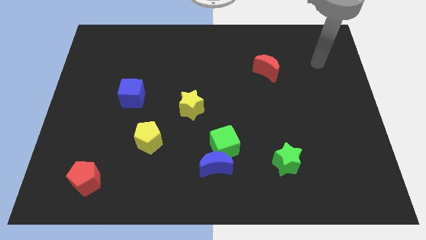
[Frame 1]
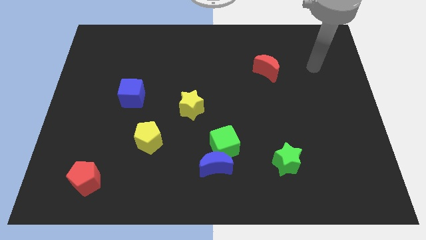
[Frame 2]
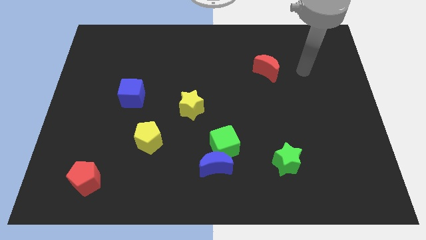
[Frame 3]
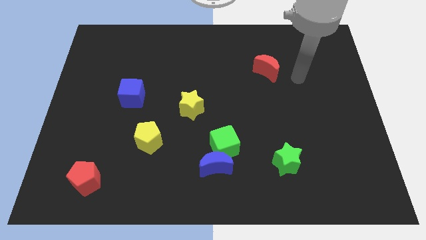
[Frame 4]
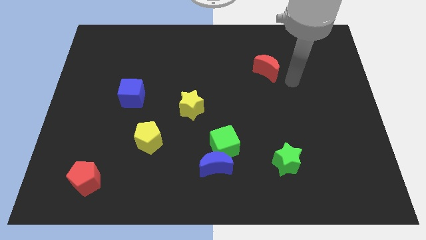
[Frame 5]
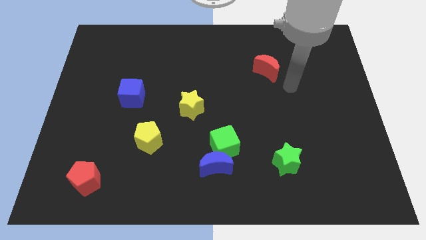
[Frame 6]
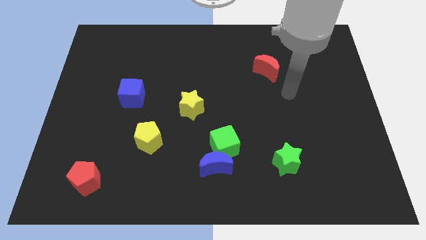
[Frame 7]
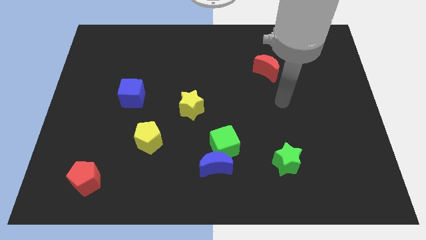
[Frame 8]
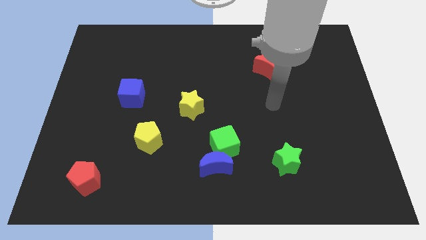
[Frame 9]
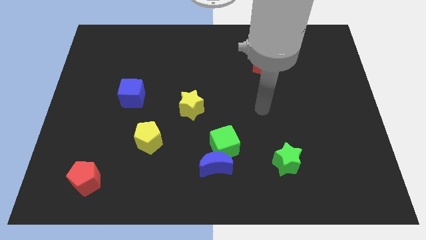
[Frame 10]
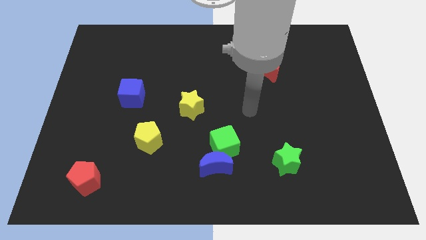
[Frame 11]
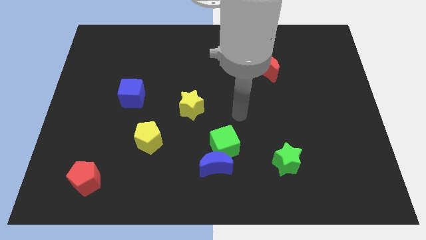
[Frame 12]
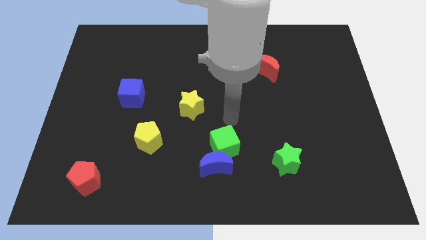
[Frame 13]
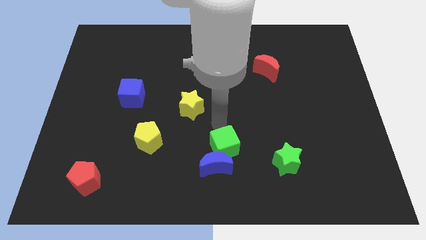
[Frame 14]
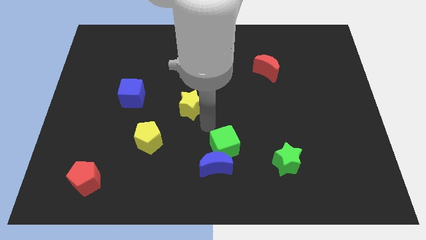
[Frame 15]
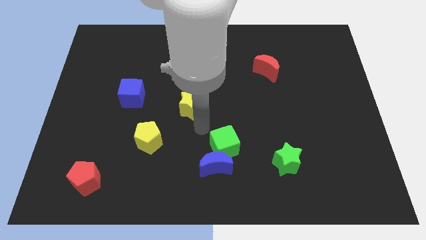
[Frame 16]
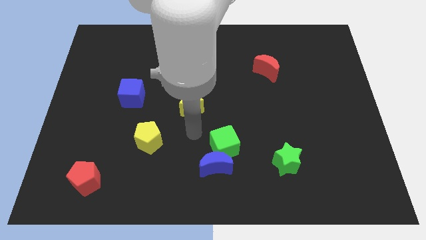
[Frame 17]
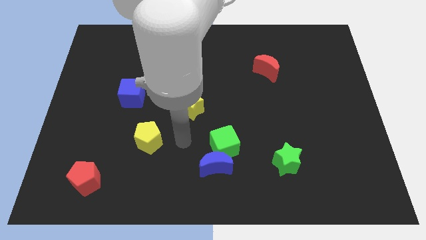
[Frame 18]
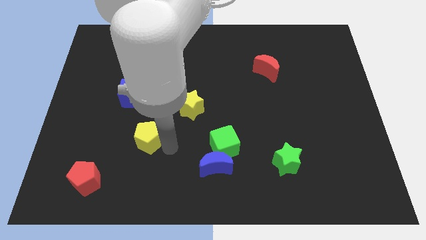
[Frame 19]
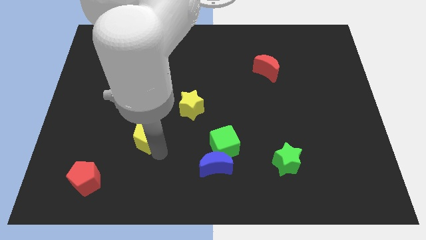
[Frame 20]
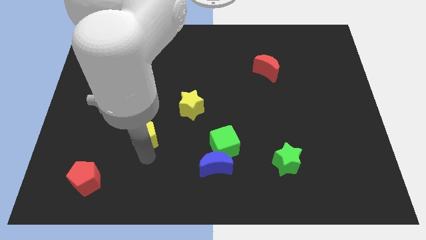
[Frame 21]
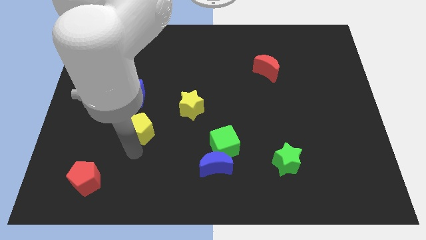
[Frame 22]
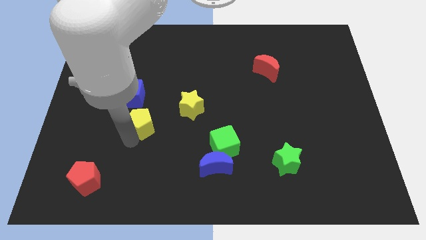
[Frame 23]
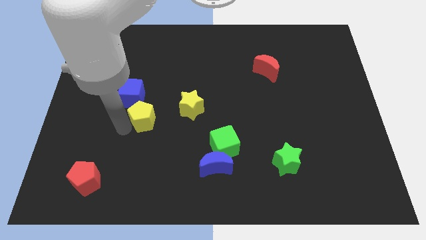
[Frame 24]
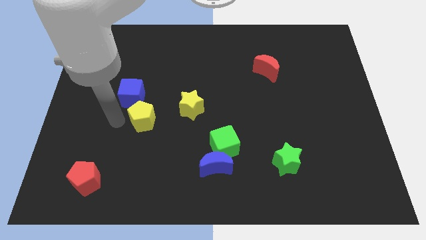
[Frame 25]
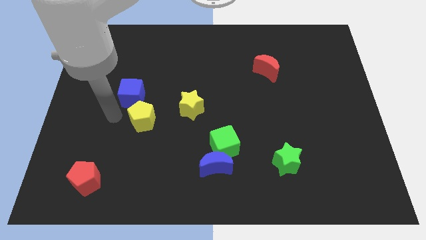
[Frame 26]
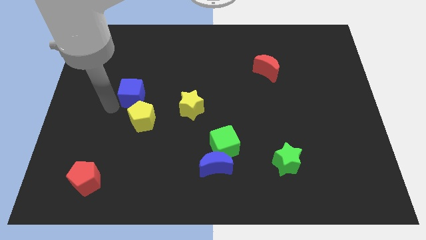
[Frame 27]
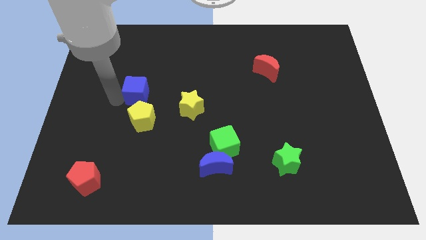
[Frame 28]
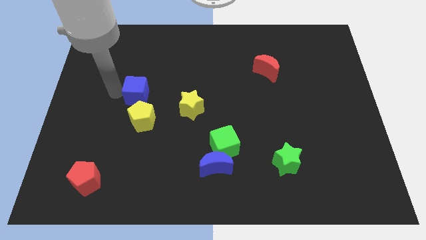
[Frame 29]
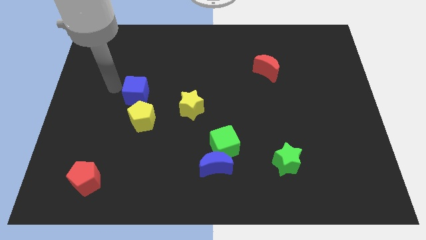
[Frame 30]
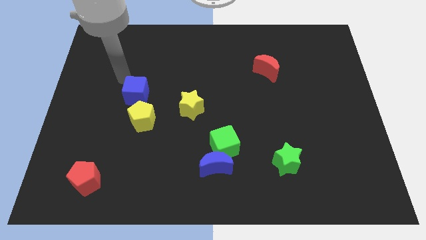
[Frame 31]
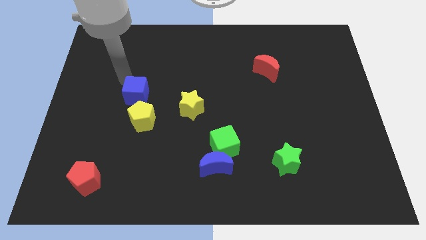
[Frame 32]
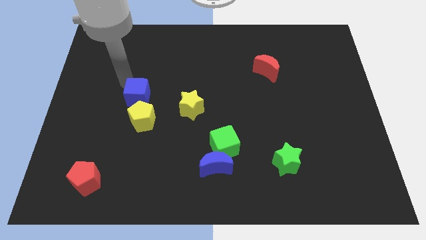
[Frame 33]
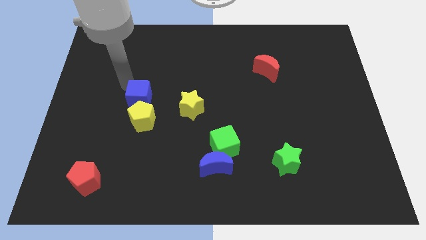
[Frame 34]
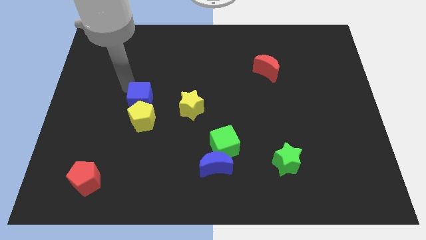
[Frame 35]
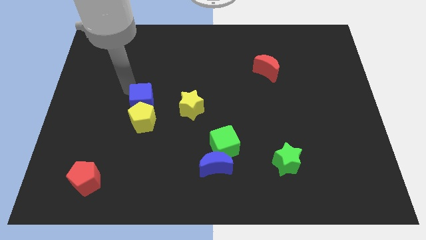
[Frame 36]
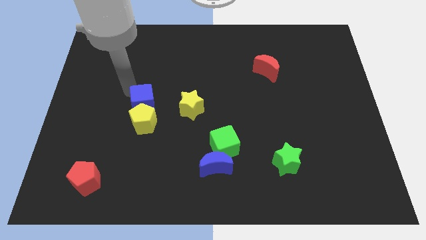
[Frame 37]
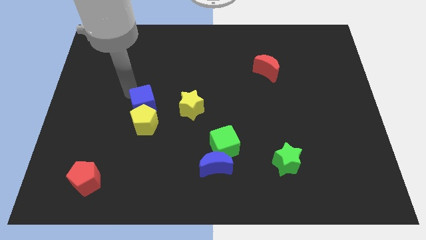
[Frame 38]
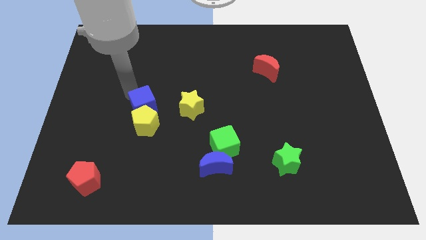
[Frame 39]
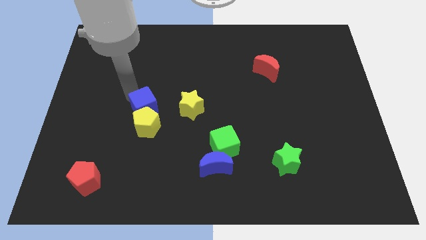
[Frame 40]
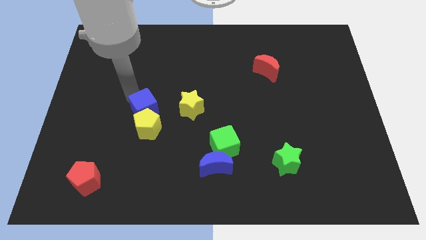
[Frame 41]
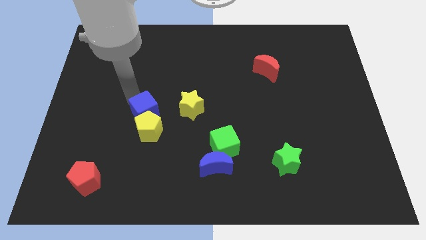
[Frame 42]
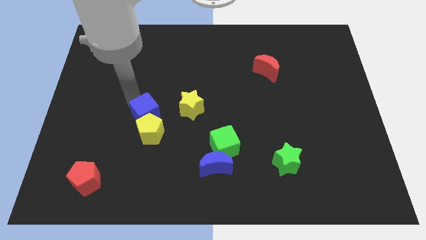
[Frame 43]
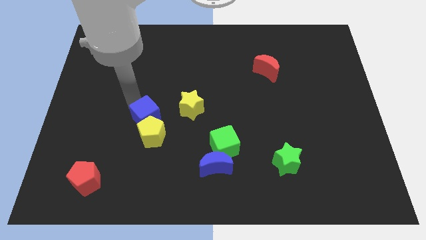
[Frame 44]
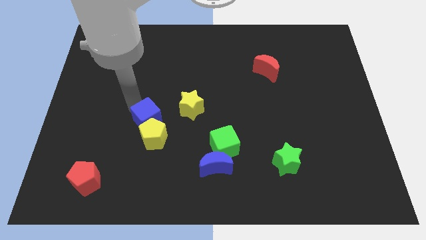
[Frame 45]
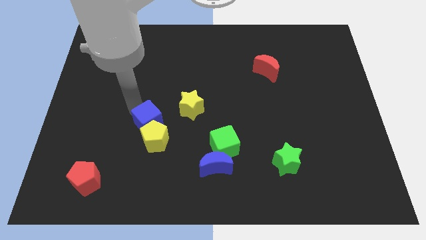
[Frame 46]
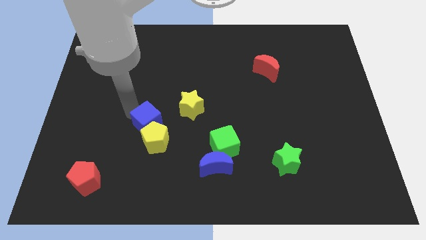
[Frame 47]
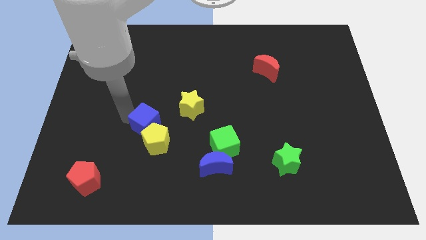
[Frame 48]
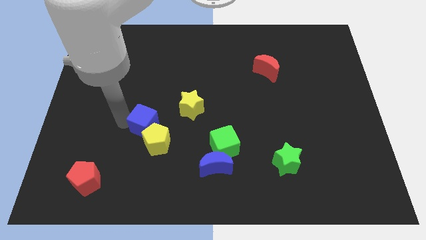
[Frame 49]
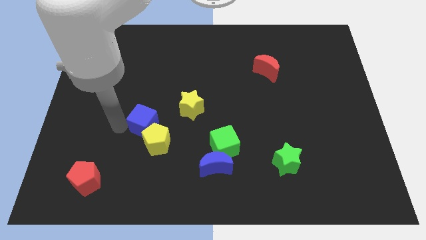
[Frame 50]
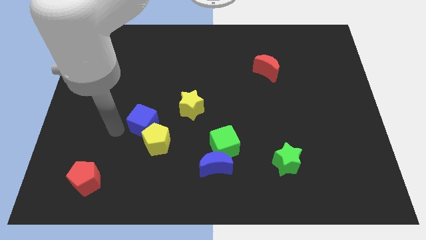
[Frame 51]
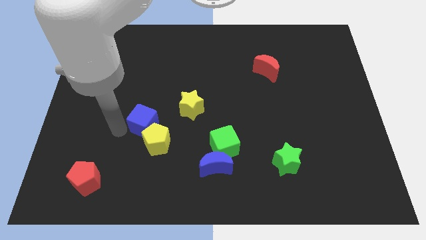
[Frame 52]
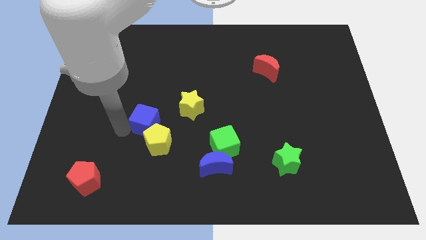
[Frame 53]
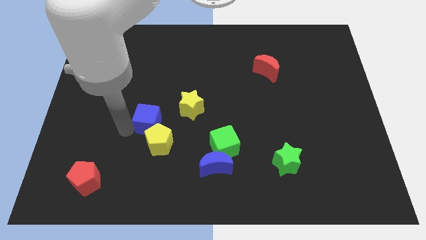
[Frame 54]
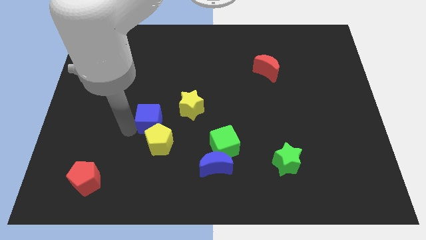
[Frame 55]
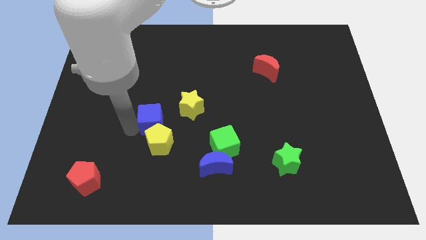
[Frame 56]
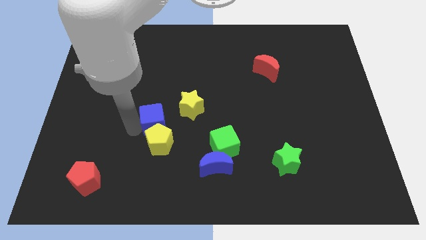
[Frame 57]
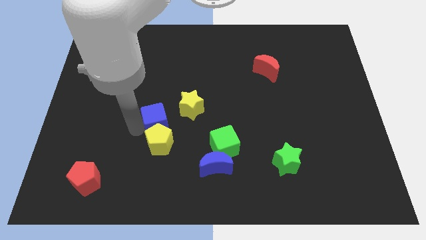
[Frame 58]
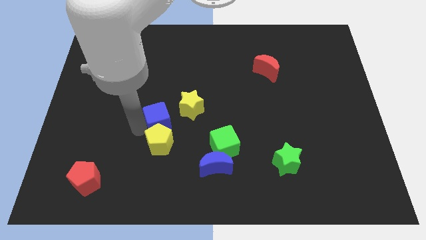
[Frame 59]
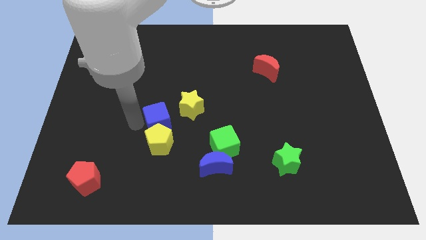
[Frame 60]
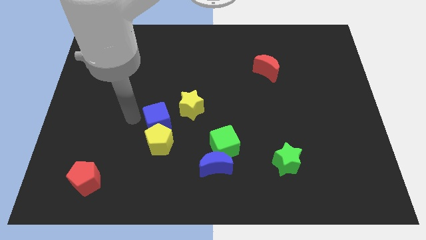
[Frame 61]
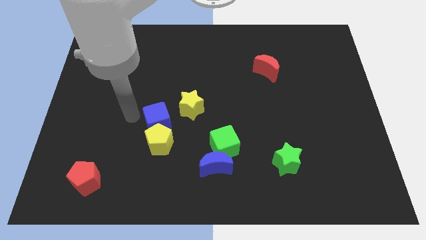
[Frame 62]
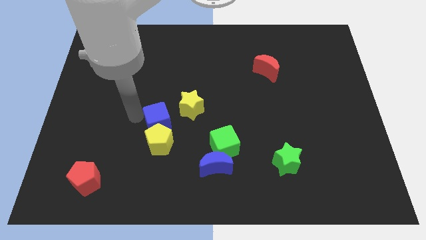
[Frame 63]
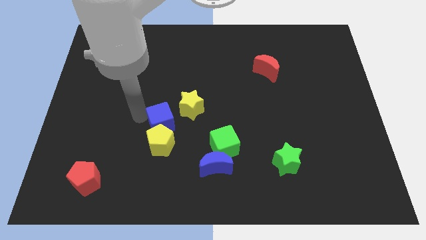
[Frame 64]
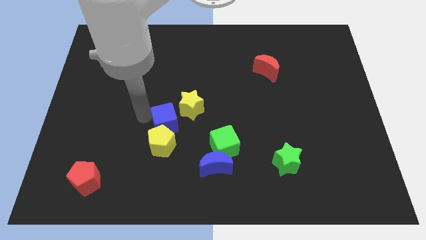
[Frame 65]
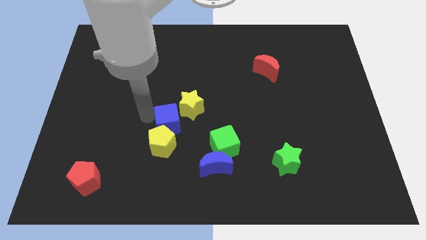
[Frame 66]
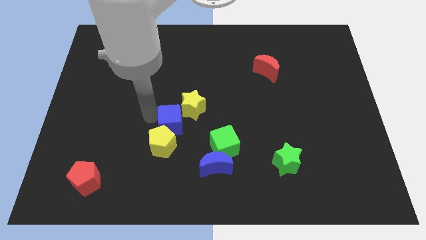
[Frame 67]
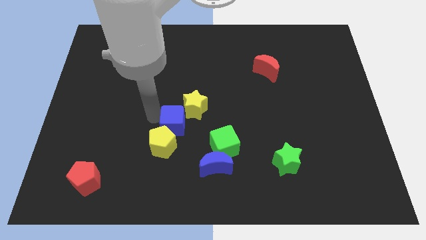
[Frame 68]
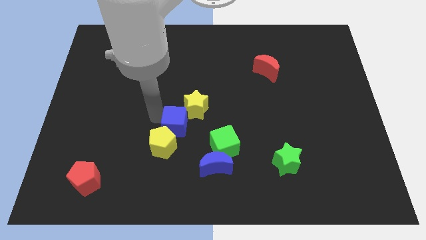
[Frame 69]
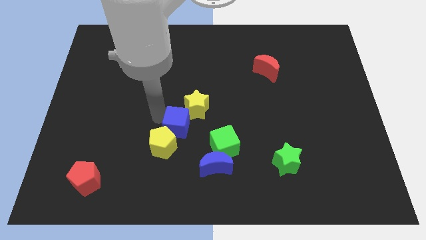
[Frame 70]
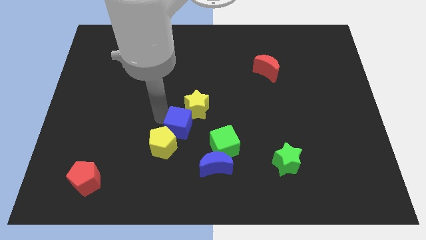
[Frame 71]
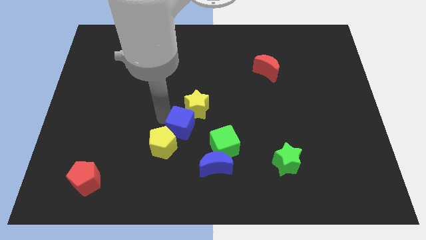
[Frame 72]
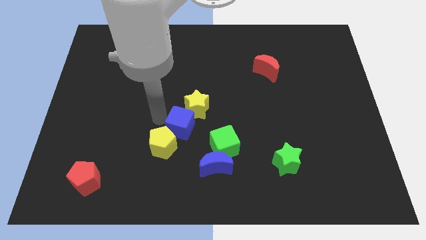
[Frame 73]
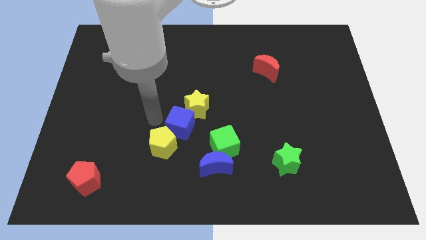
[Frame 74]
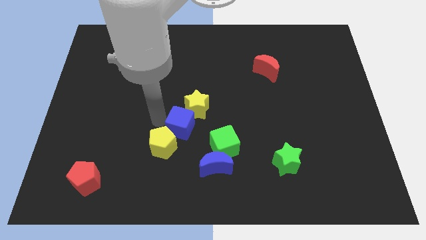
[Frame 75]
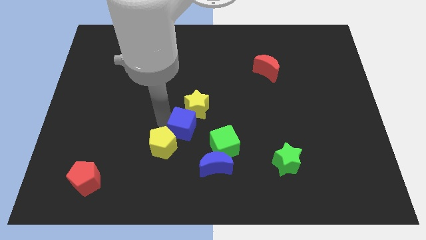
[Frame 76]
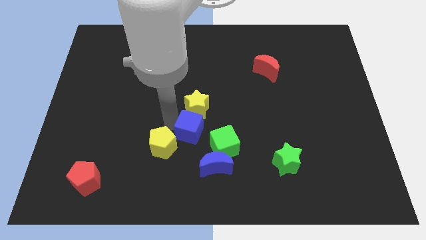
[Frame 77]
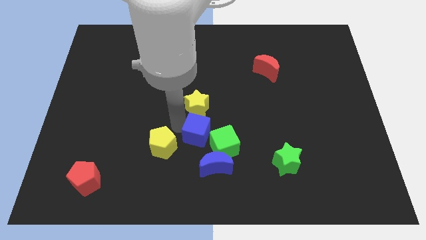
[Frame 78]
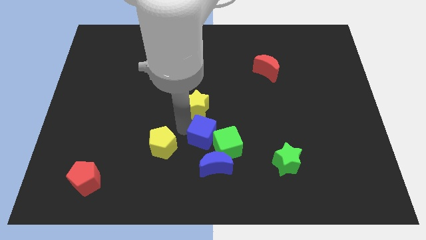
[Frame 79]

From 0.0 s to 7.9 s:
push the blue cube next to the green cube
